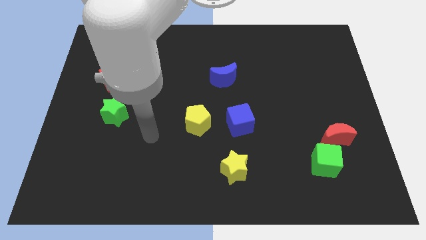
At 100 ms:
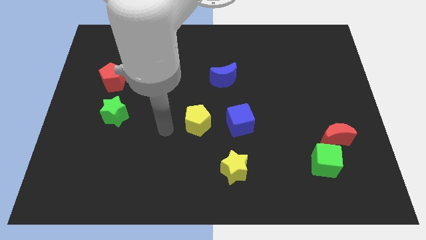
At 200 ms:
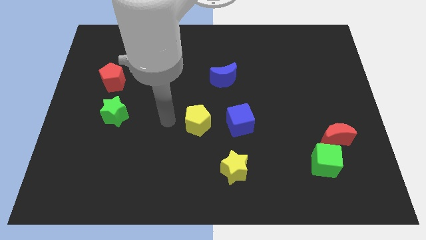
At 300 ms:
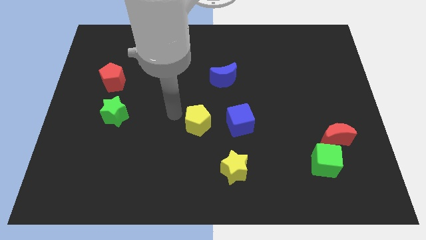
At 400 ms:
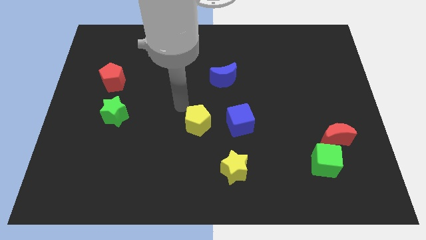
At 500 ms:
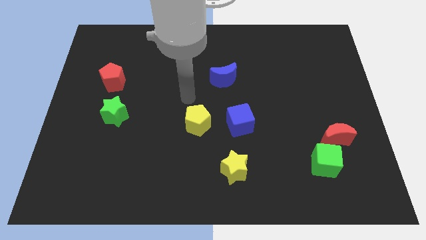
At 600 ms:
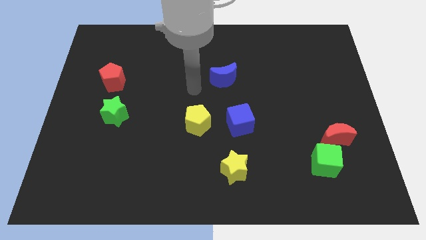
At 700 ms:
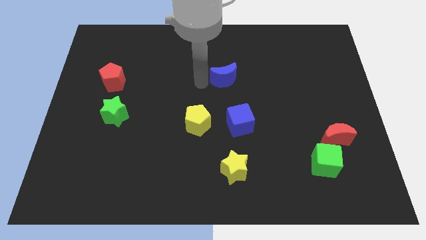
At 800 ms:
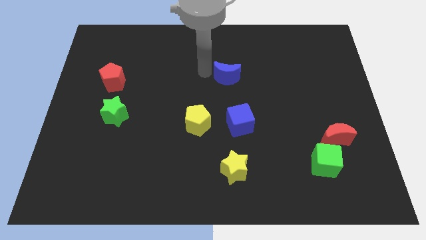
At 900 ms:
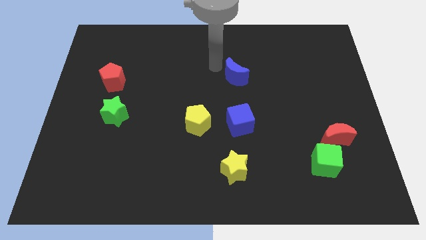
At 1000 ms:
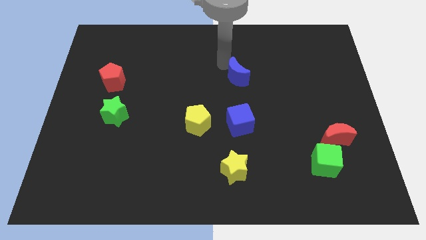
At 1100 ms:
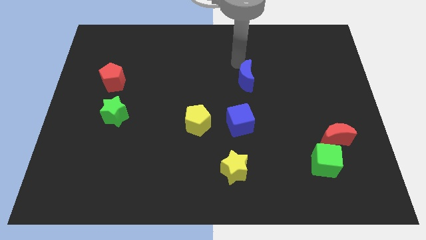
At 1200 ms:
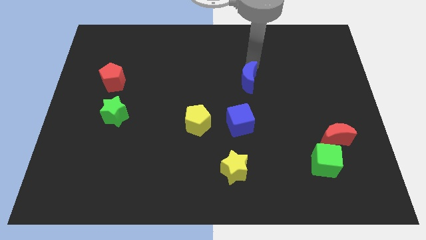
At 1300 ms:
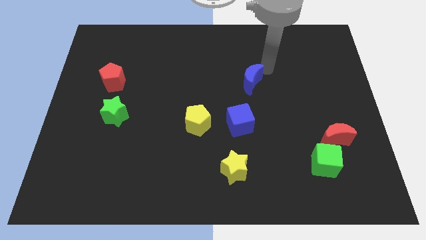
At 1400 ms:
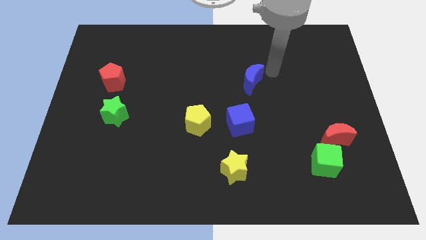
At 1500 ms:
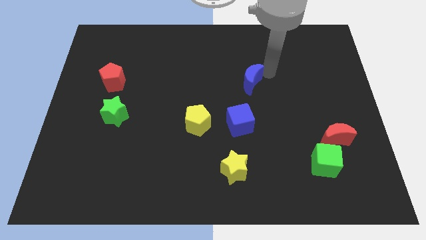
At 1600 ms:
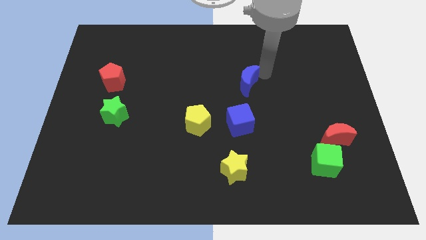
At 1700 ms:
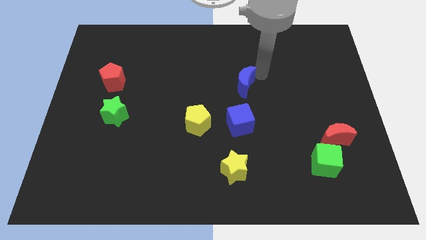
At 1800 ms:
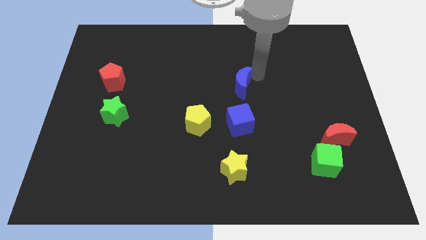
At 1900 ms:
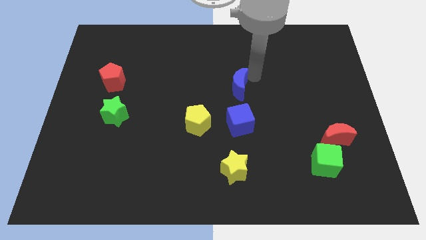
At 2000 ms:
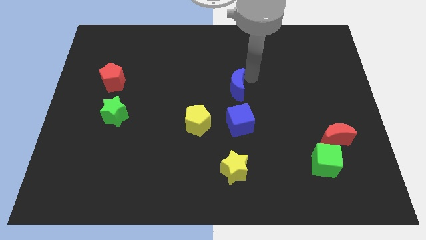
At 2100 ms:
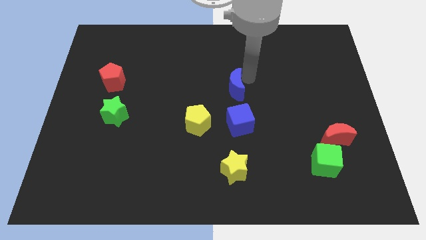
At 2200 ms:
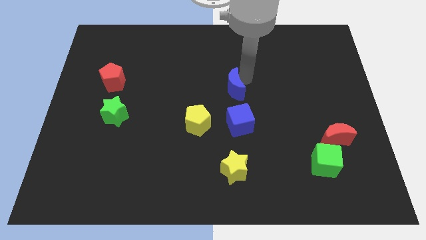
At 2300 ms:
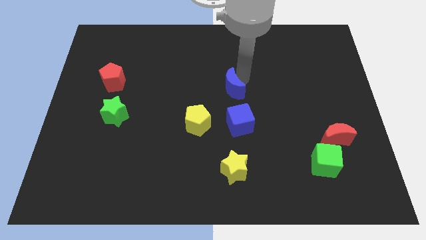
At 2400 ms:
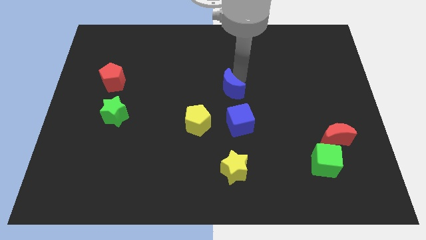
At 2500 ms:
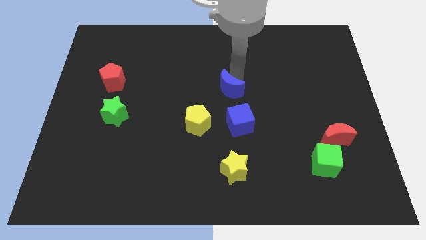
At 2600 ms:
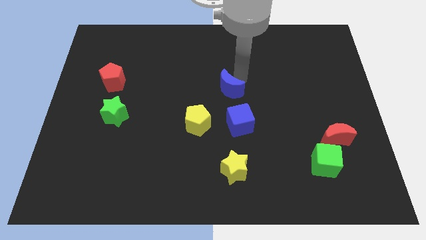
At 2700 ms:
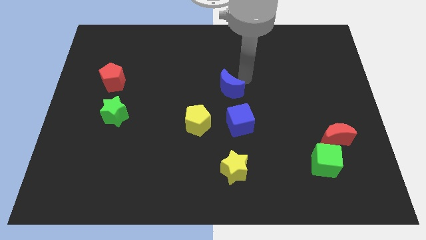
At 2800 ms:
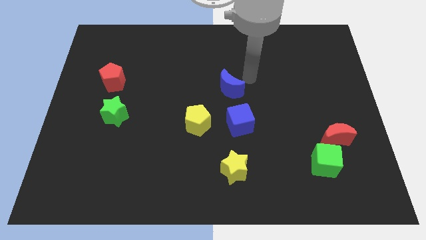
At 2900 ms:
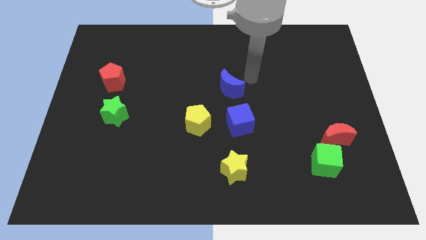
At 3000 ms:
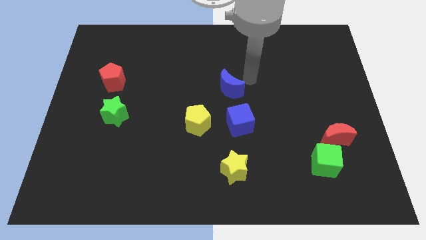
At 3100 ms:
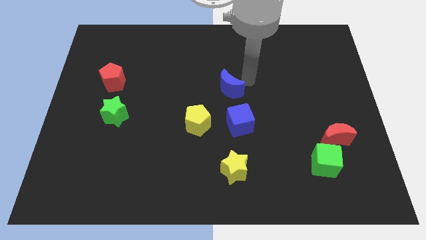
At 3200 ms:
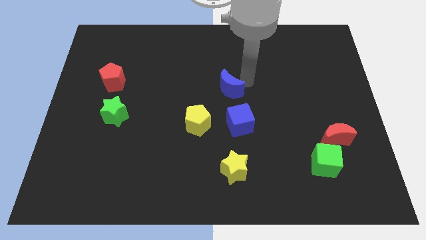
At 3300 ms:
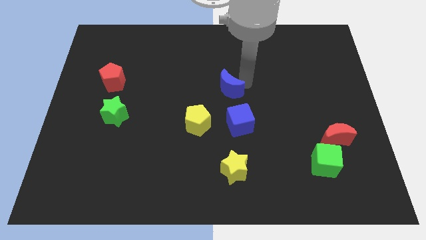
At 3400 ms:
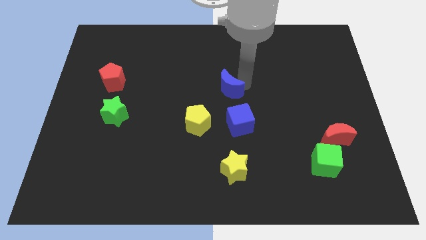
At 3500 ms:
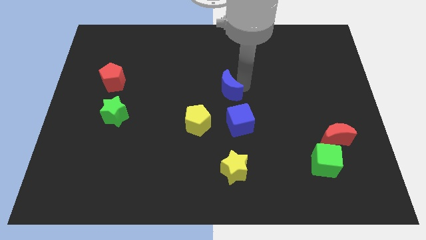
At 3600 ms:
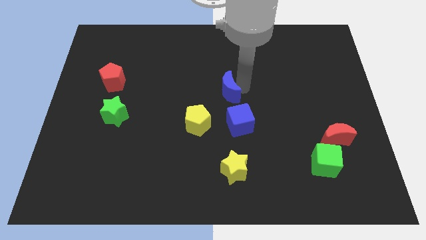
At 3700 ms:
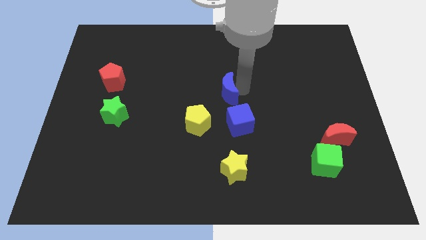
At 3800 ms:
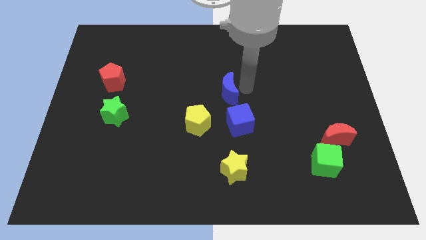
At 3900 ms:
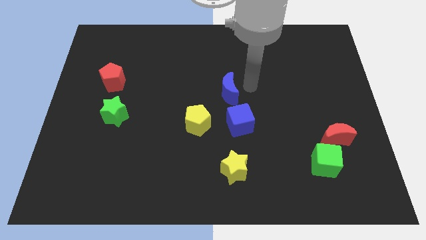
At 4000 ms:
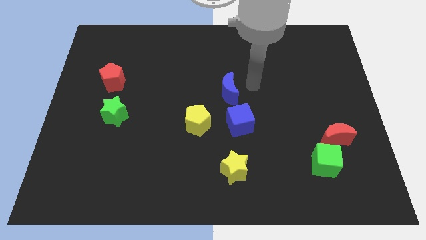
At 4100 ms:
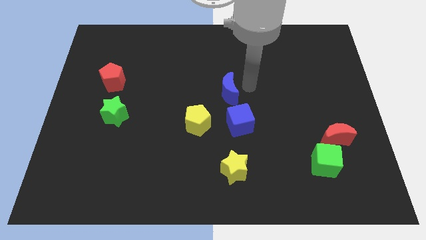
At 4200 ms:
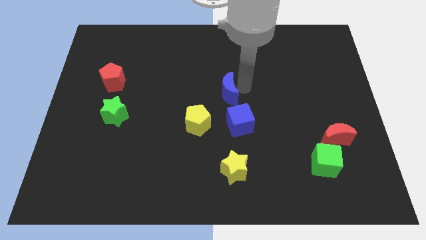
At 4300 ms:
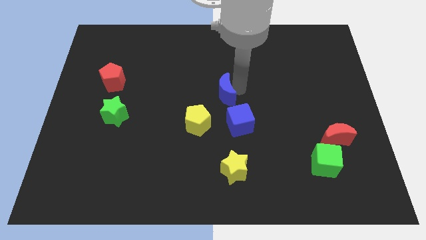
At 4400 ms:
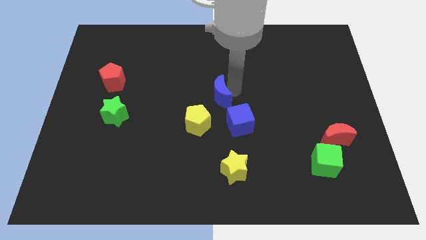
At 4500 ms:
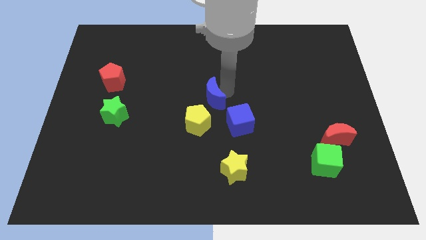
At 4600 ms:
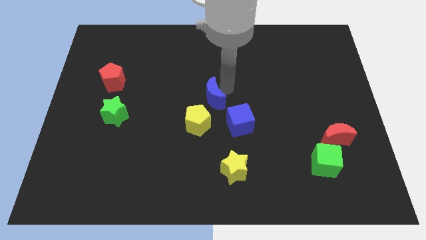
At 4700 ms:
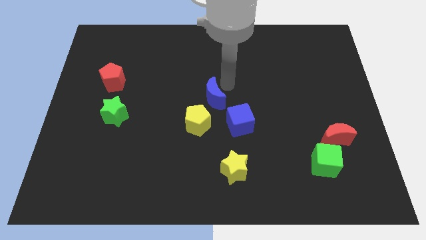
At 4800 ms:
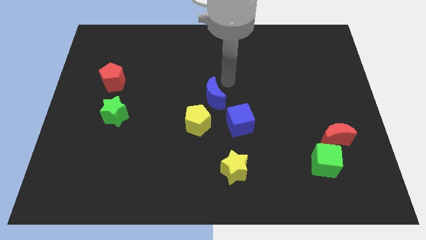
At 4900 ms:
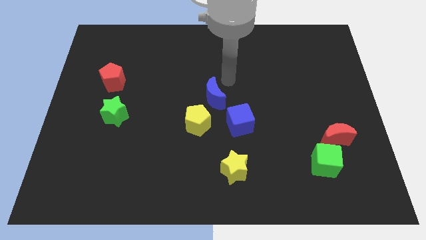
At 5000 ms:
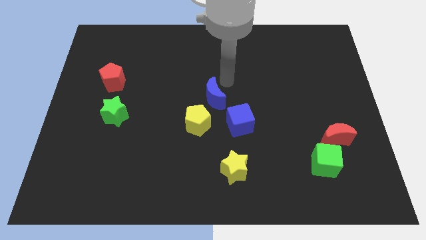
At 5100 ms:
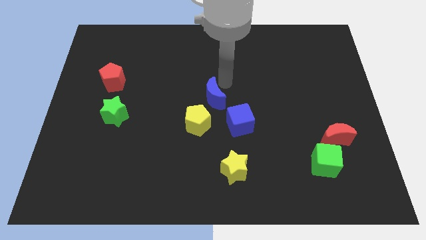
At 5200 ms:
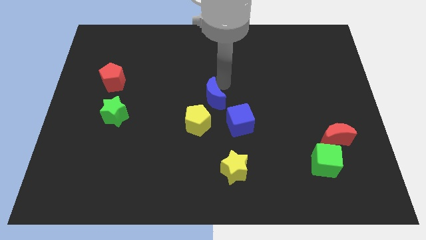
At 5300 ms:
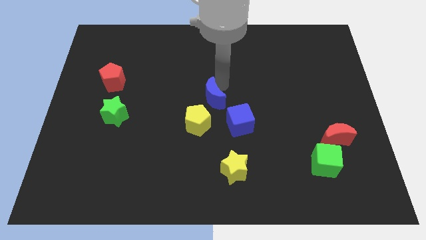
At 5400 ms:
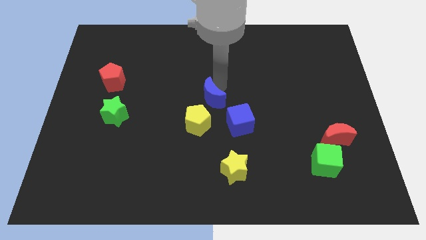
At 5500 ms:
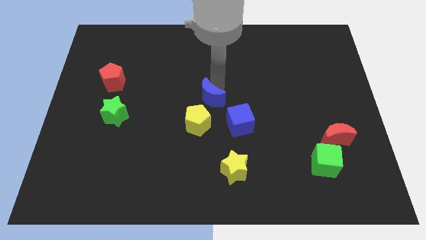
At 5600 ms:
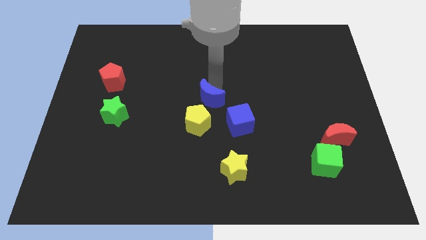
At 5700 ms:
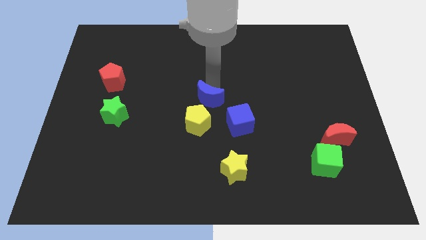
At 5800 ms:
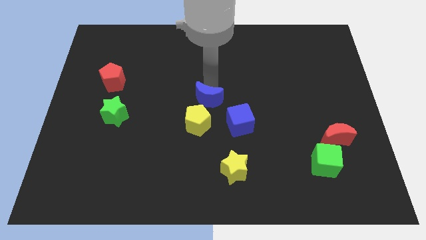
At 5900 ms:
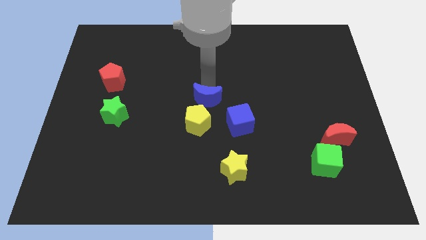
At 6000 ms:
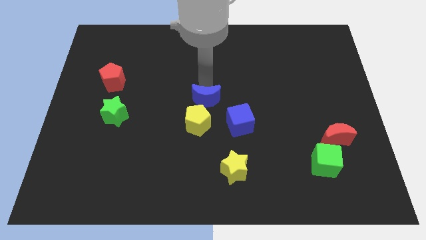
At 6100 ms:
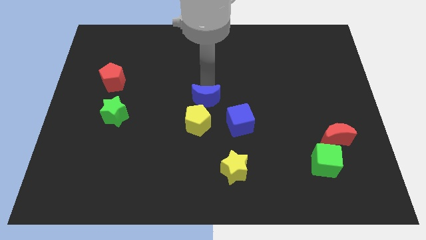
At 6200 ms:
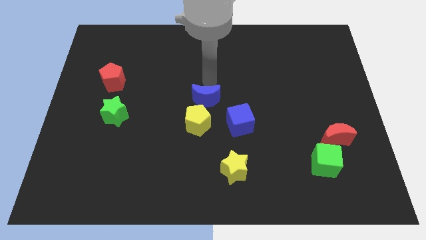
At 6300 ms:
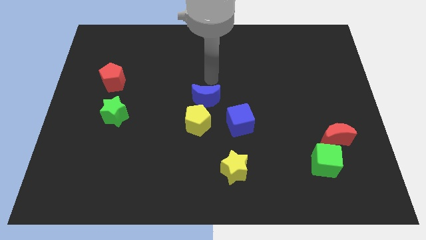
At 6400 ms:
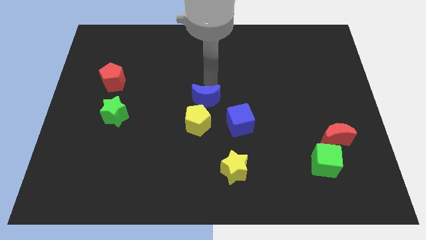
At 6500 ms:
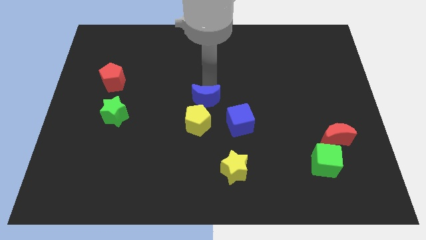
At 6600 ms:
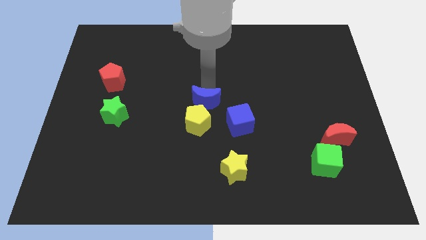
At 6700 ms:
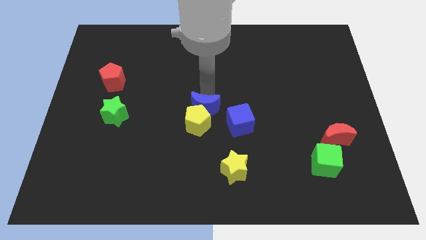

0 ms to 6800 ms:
put the blue moon next to the yellow pentagon

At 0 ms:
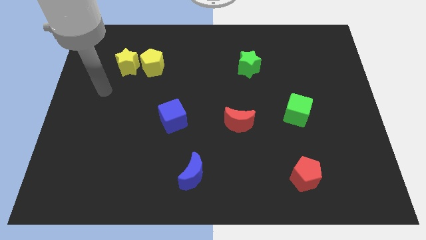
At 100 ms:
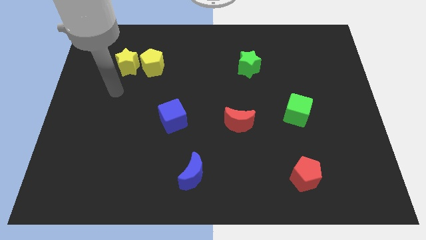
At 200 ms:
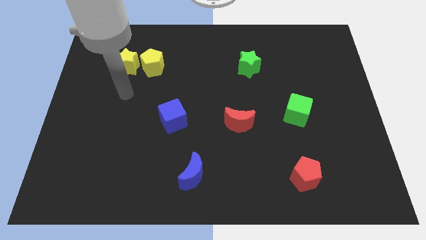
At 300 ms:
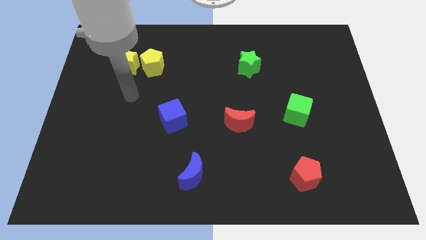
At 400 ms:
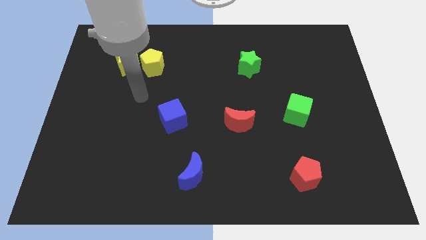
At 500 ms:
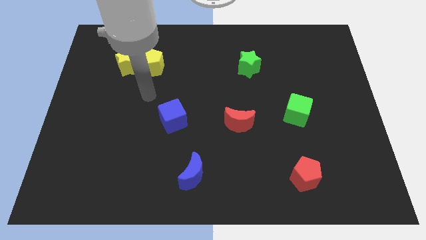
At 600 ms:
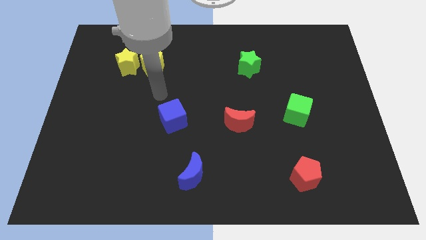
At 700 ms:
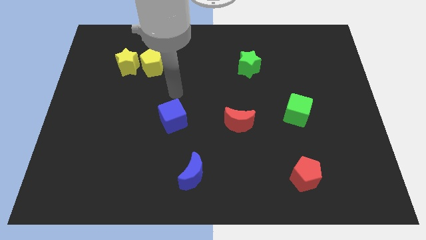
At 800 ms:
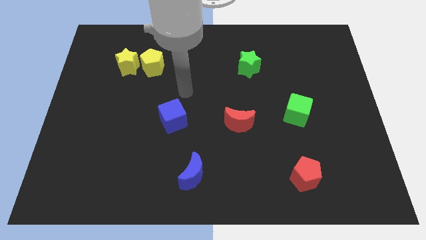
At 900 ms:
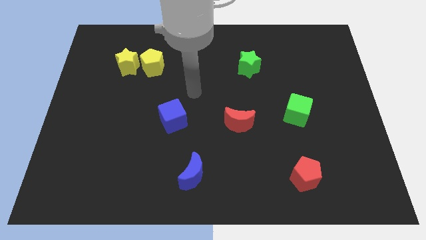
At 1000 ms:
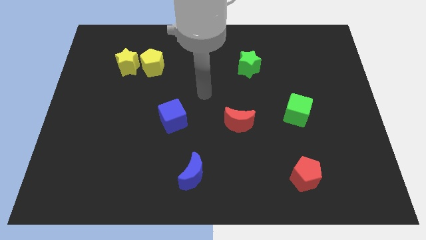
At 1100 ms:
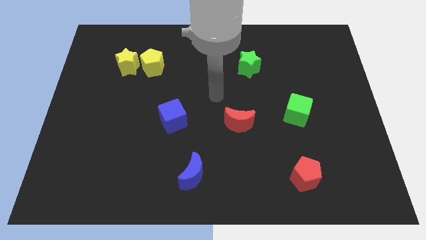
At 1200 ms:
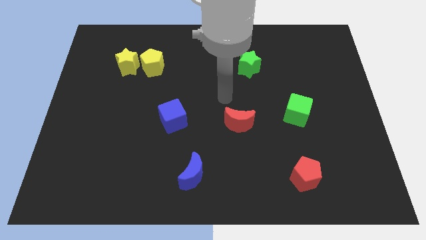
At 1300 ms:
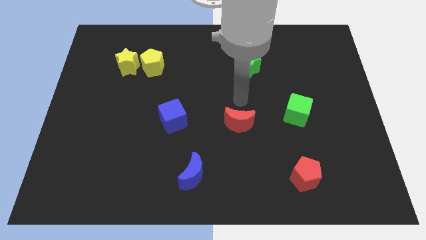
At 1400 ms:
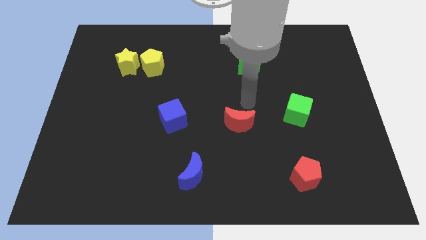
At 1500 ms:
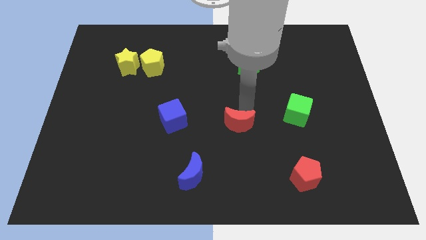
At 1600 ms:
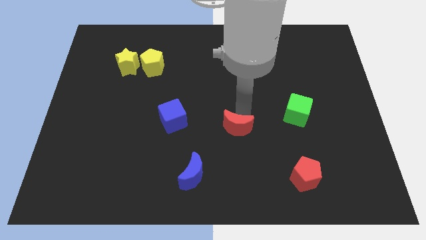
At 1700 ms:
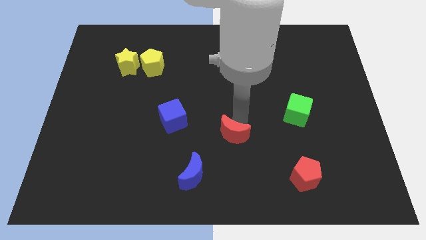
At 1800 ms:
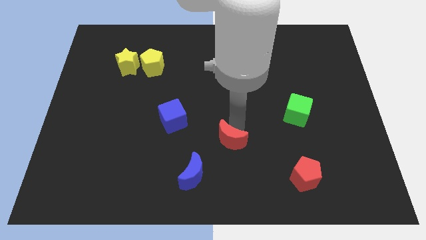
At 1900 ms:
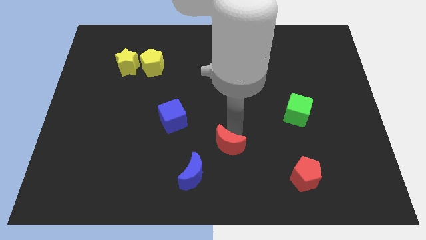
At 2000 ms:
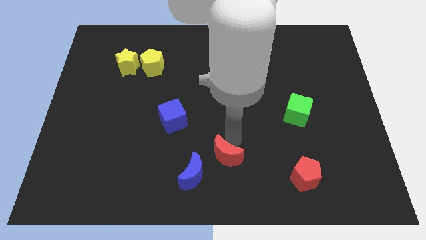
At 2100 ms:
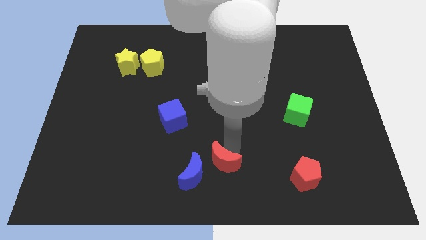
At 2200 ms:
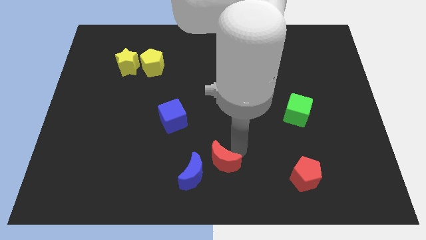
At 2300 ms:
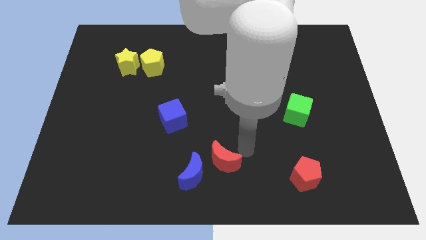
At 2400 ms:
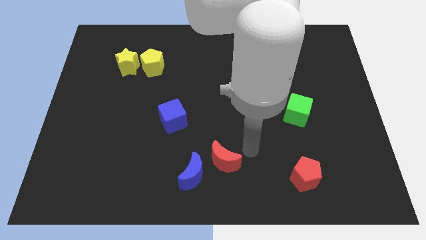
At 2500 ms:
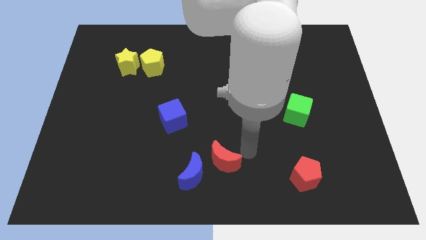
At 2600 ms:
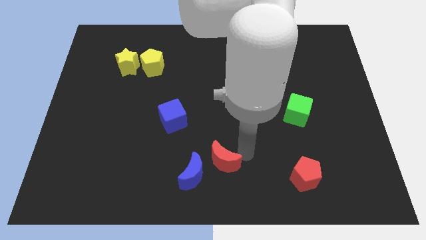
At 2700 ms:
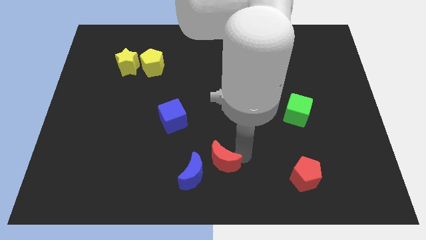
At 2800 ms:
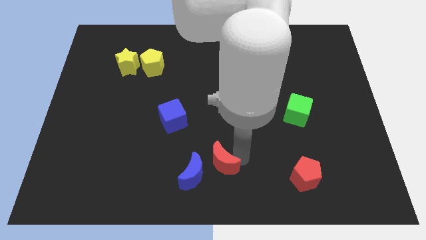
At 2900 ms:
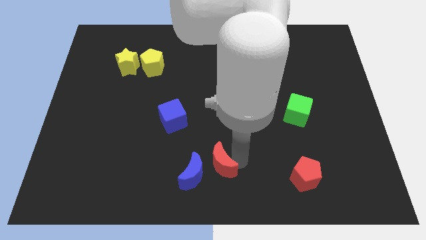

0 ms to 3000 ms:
put the red moon towards the blue moon
